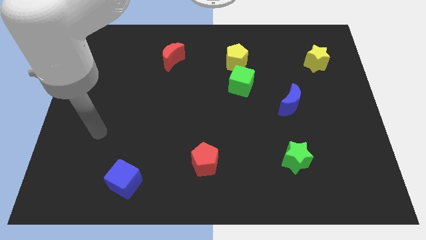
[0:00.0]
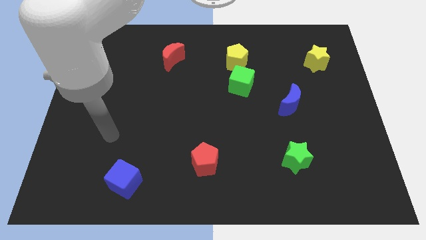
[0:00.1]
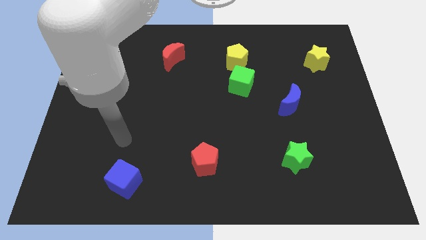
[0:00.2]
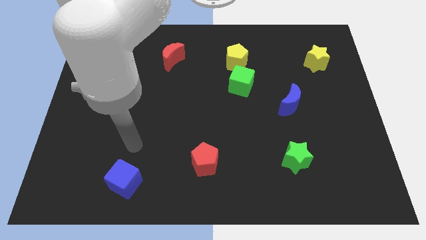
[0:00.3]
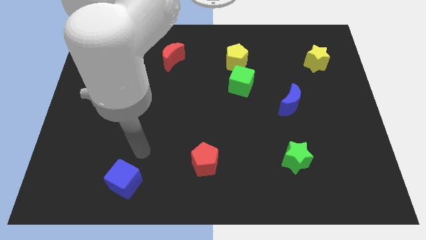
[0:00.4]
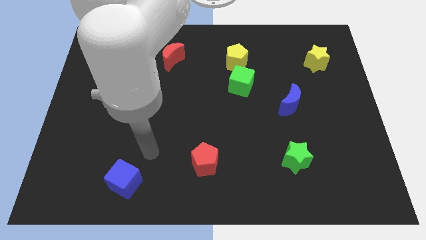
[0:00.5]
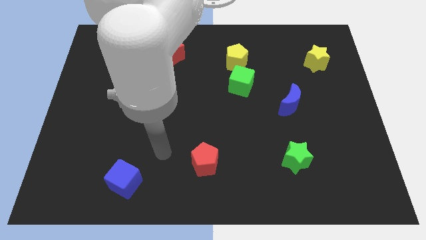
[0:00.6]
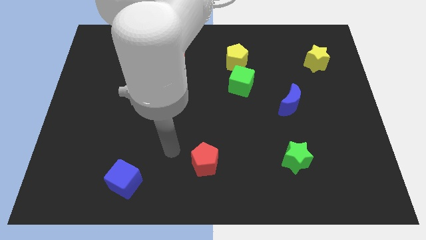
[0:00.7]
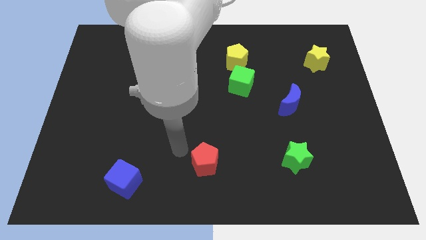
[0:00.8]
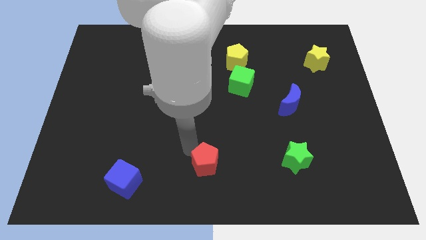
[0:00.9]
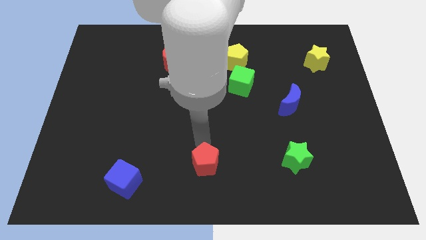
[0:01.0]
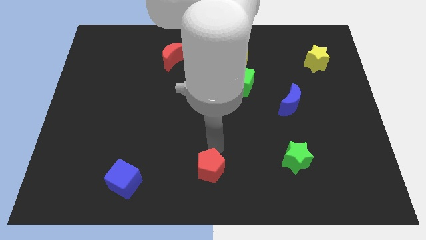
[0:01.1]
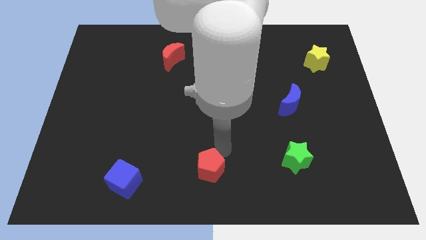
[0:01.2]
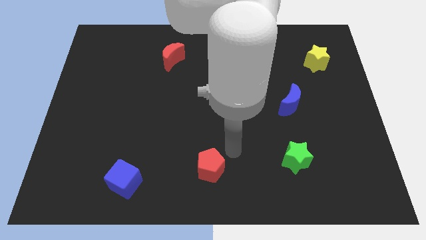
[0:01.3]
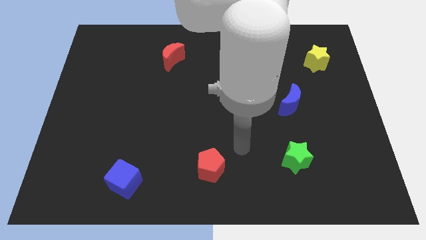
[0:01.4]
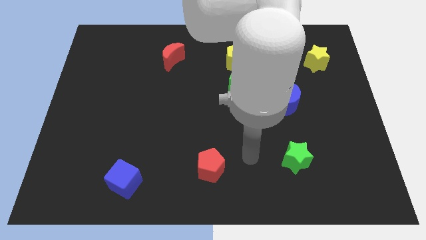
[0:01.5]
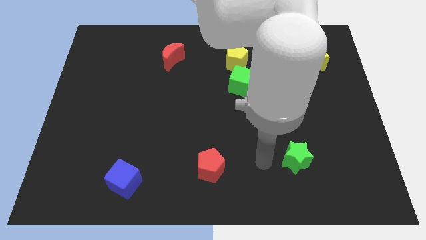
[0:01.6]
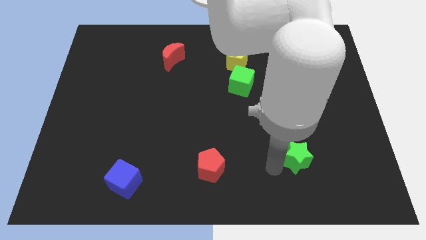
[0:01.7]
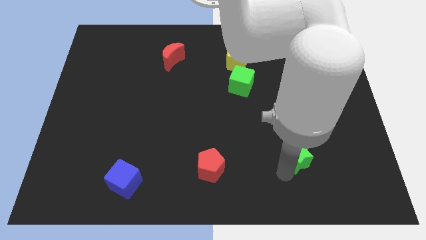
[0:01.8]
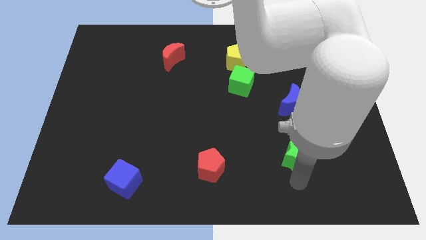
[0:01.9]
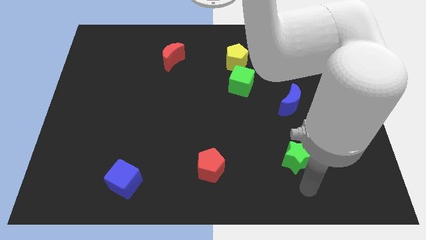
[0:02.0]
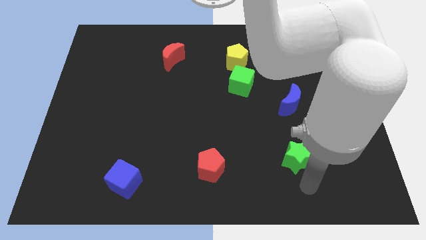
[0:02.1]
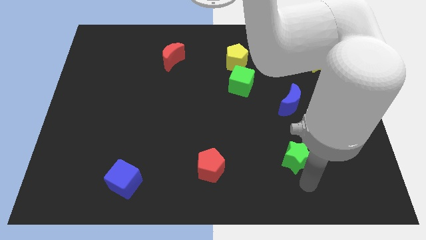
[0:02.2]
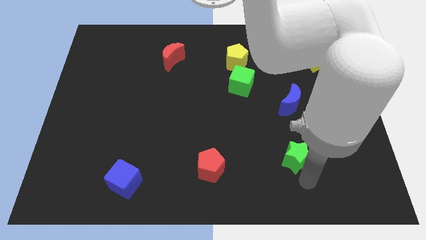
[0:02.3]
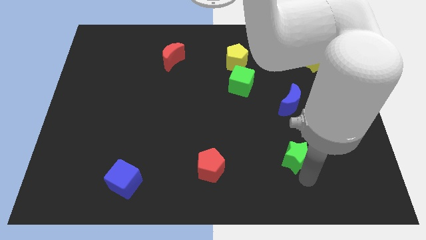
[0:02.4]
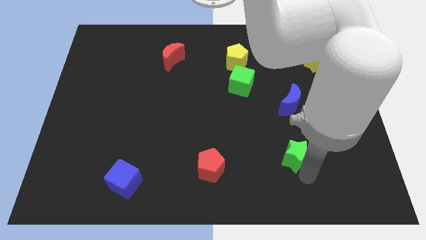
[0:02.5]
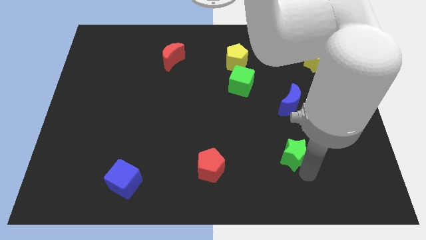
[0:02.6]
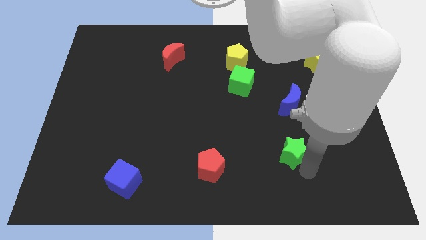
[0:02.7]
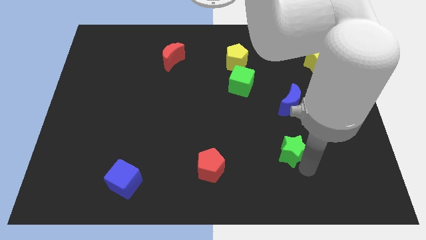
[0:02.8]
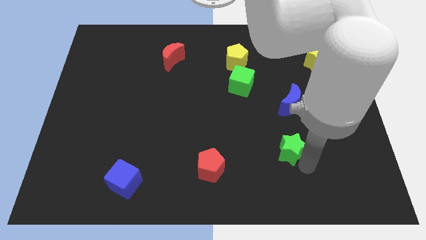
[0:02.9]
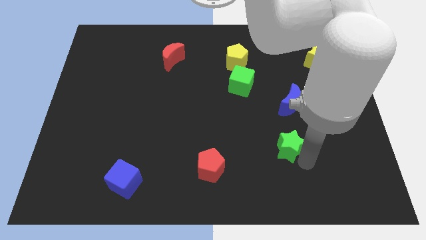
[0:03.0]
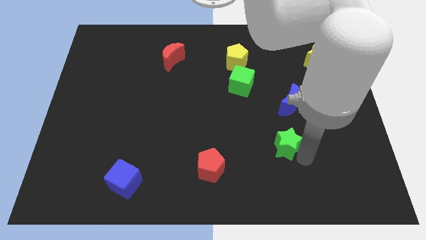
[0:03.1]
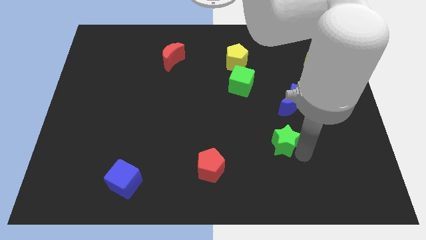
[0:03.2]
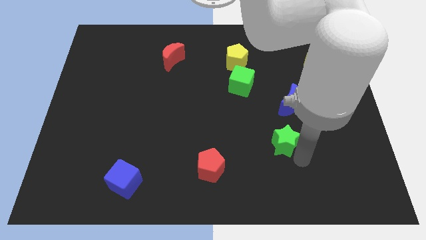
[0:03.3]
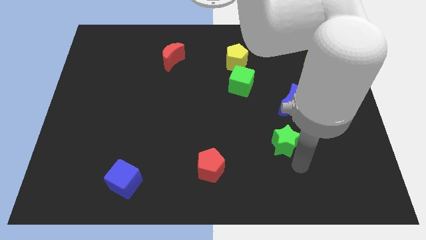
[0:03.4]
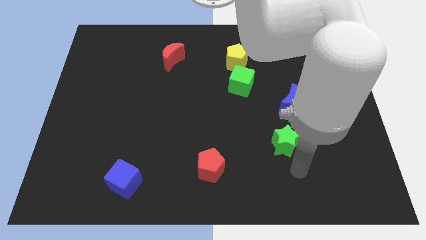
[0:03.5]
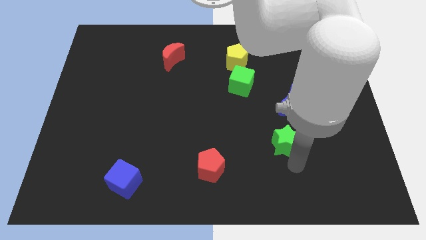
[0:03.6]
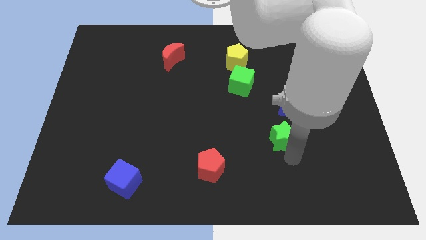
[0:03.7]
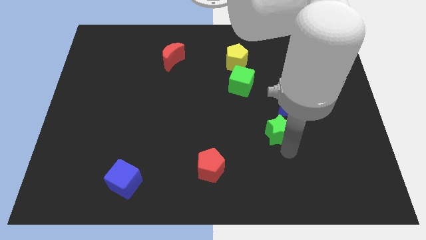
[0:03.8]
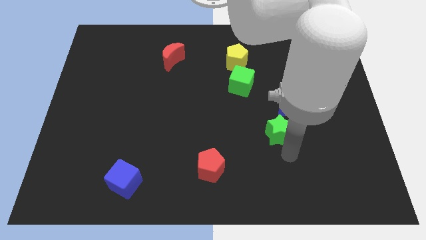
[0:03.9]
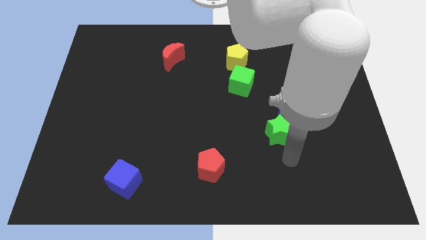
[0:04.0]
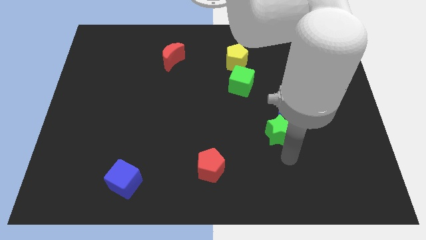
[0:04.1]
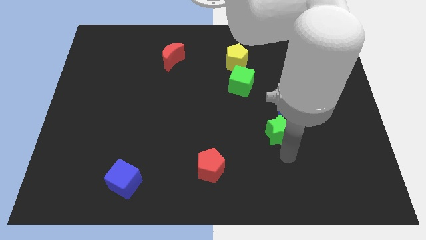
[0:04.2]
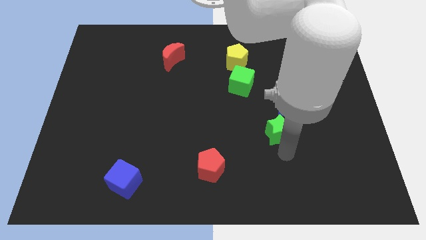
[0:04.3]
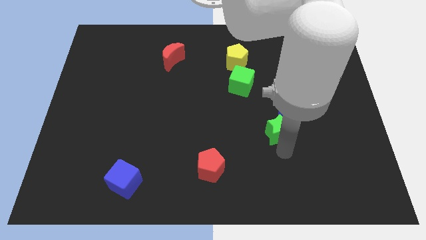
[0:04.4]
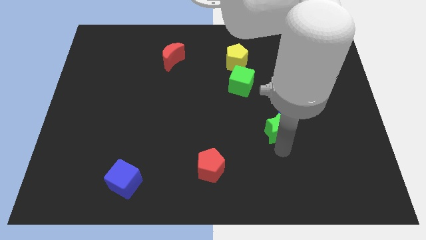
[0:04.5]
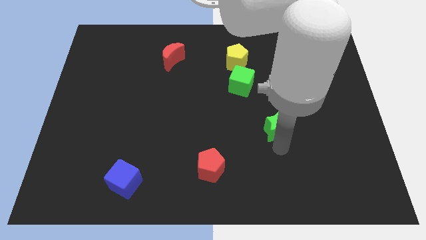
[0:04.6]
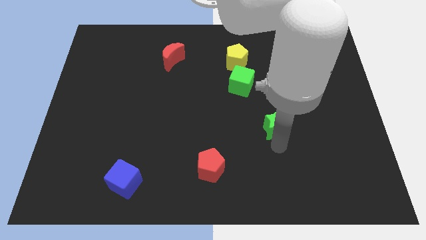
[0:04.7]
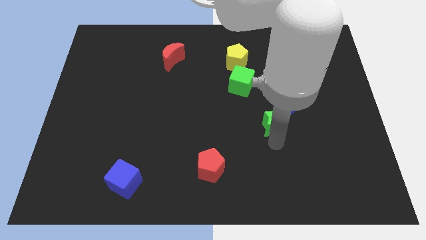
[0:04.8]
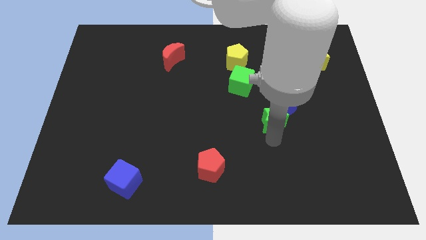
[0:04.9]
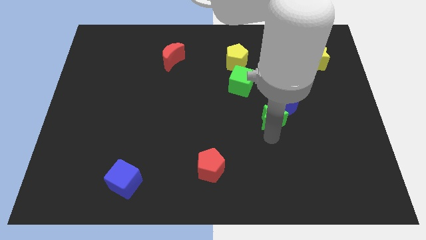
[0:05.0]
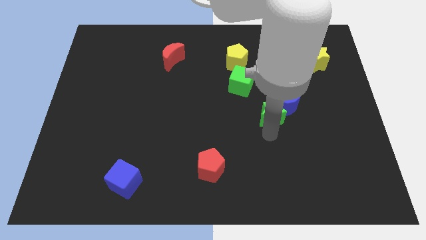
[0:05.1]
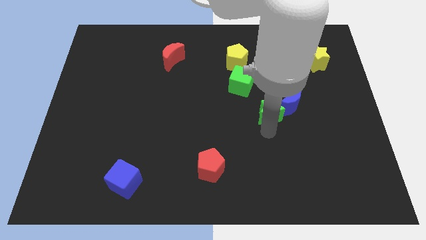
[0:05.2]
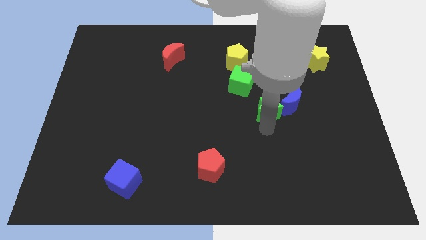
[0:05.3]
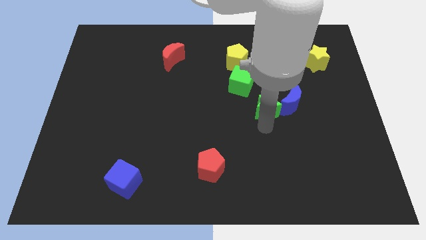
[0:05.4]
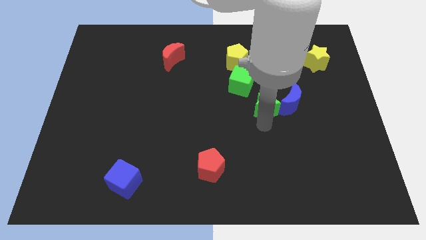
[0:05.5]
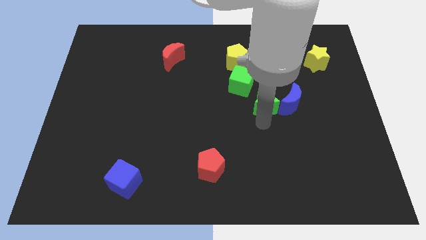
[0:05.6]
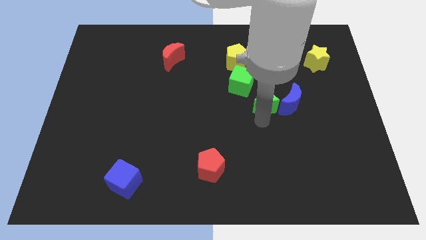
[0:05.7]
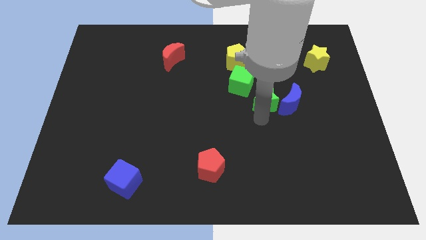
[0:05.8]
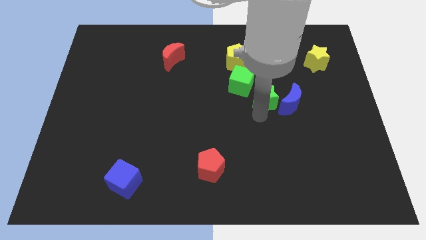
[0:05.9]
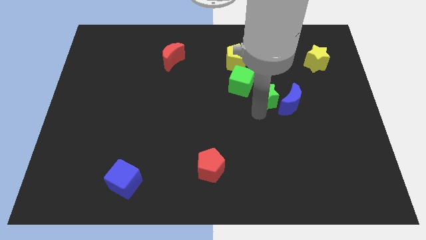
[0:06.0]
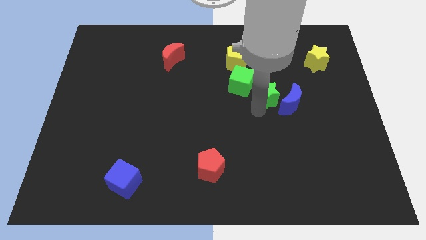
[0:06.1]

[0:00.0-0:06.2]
move the green star just right of the green cube
